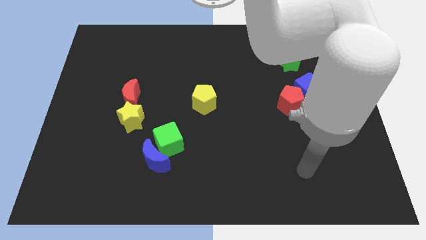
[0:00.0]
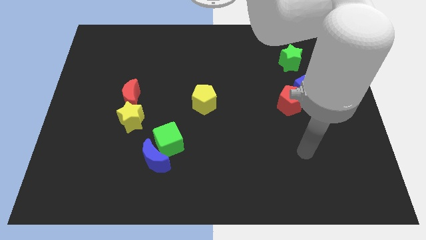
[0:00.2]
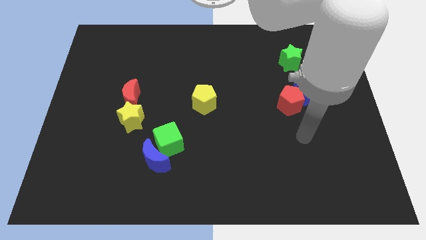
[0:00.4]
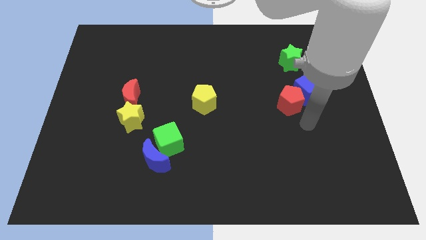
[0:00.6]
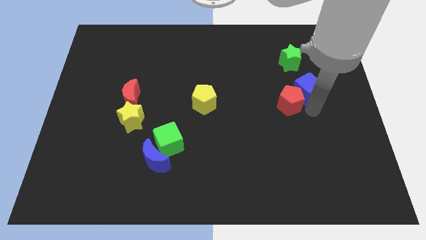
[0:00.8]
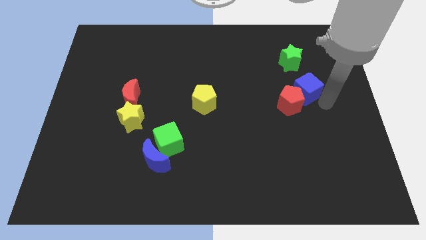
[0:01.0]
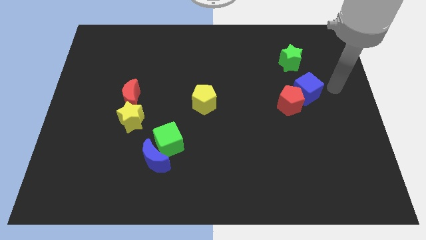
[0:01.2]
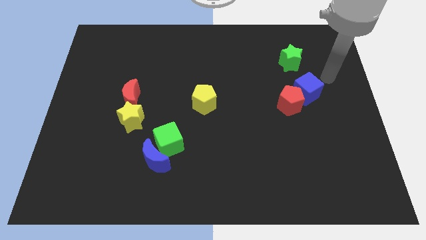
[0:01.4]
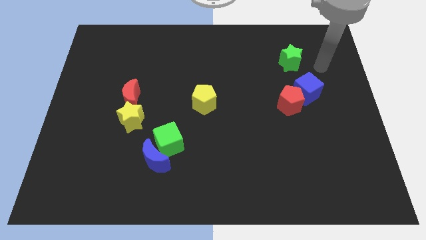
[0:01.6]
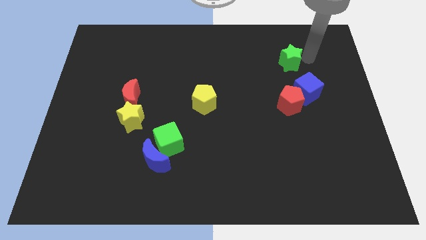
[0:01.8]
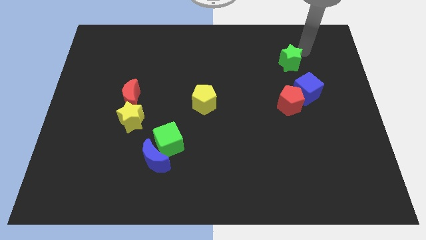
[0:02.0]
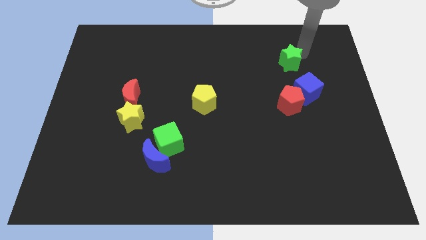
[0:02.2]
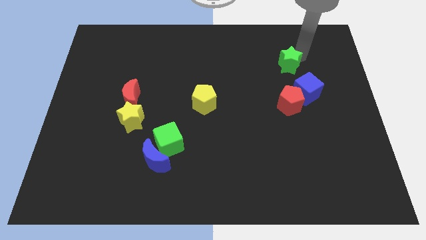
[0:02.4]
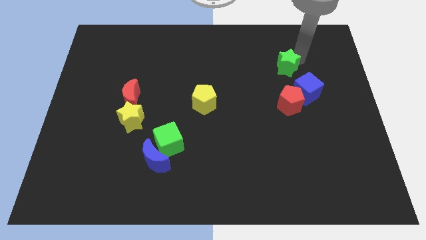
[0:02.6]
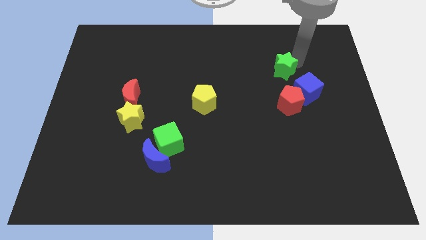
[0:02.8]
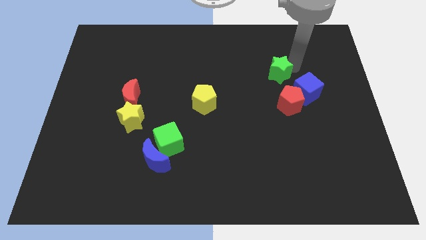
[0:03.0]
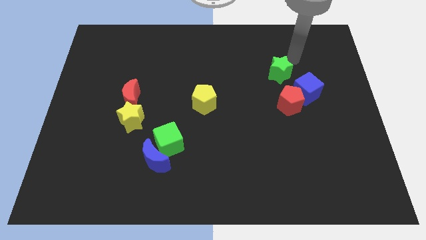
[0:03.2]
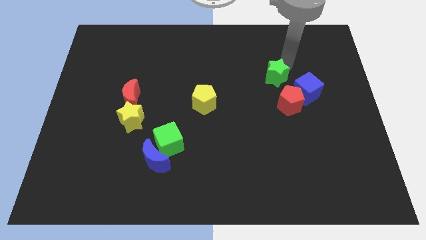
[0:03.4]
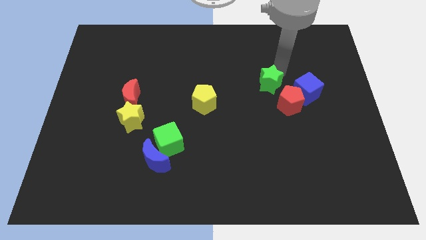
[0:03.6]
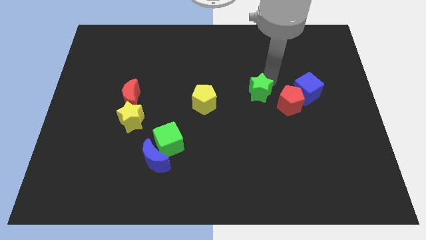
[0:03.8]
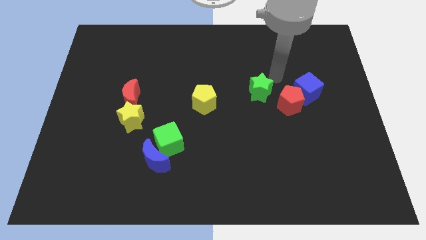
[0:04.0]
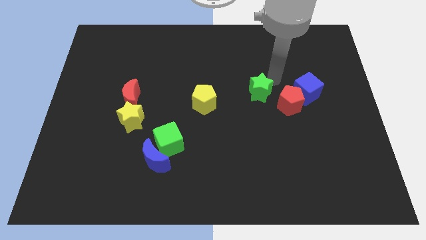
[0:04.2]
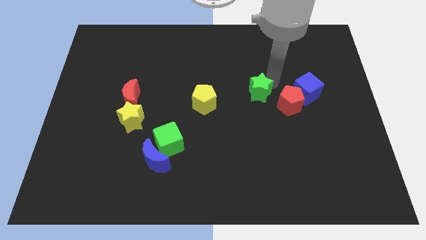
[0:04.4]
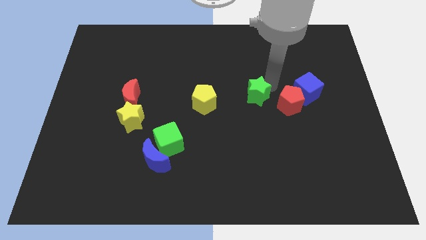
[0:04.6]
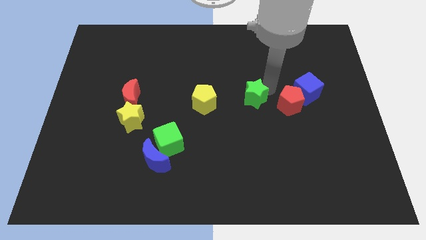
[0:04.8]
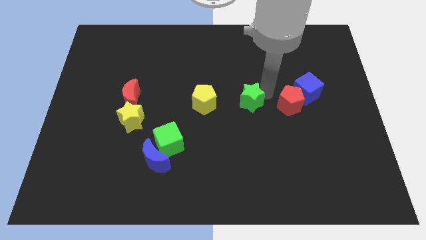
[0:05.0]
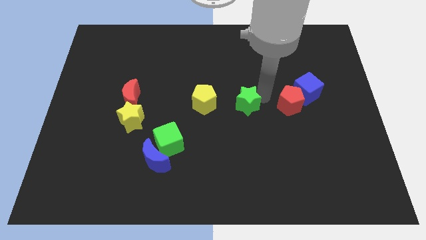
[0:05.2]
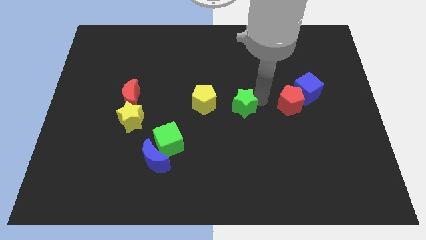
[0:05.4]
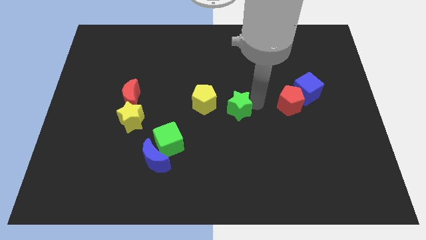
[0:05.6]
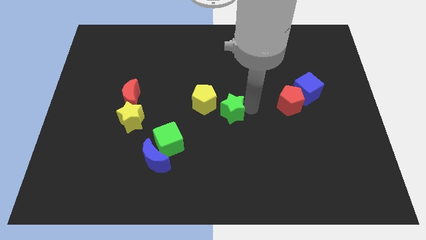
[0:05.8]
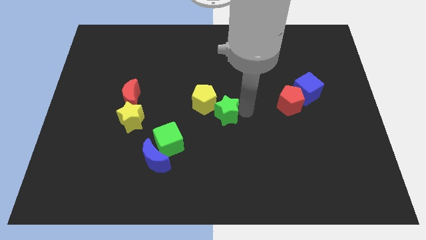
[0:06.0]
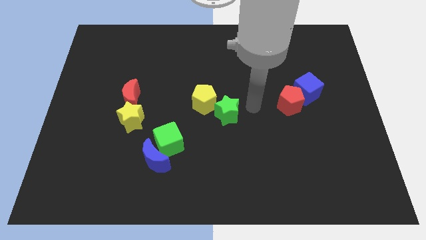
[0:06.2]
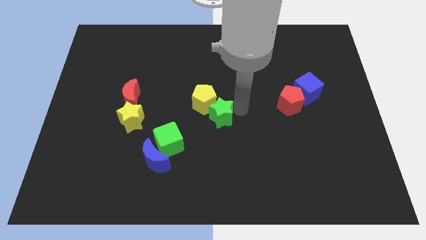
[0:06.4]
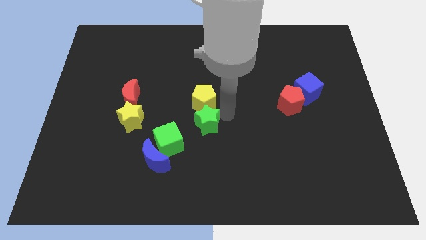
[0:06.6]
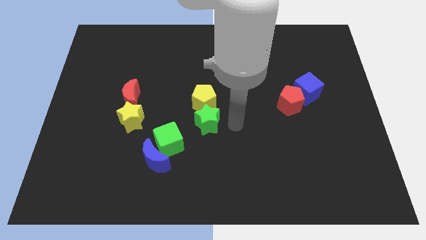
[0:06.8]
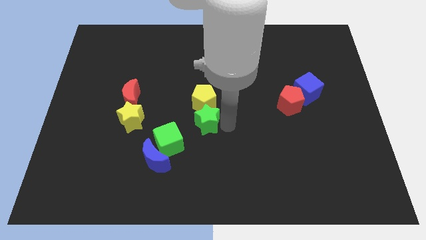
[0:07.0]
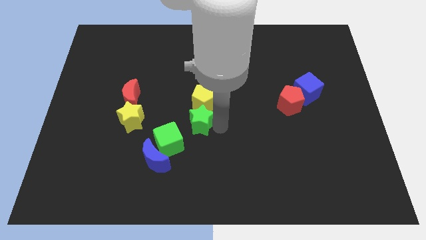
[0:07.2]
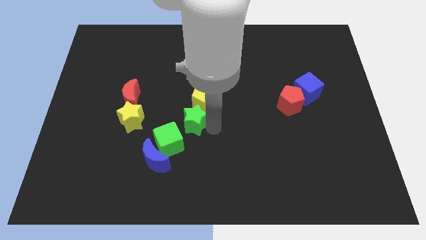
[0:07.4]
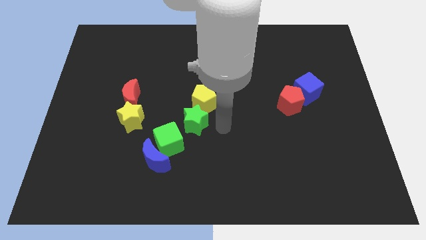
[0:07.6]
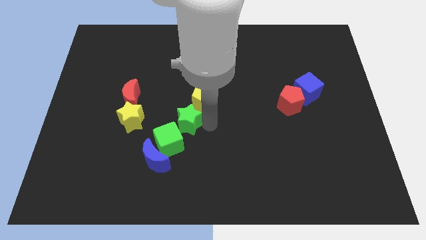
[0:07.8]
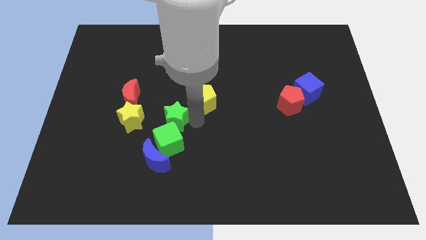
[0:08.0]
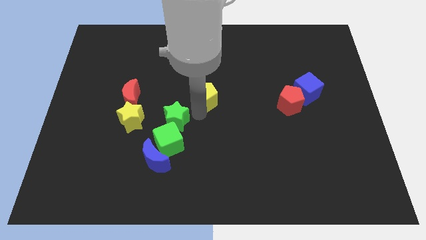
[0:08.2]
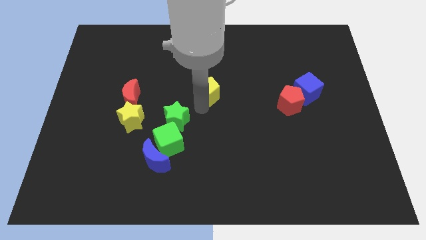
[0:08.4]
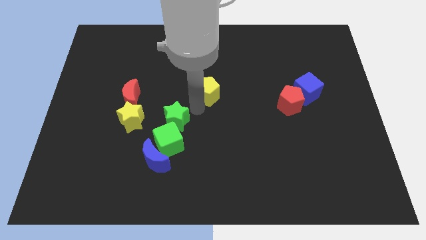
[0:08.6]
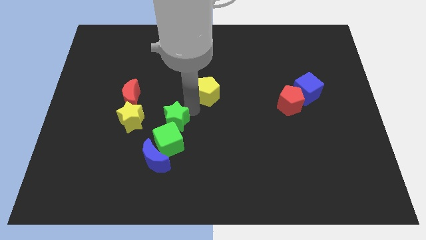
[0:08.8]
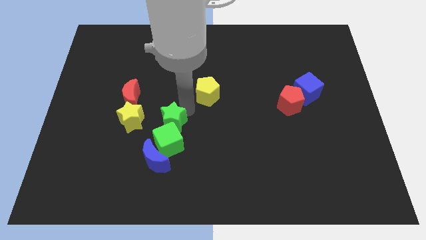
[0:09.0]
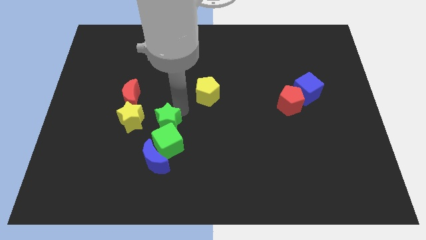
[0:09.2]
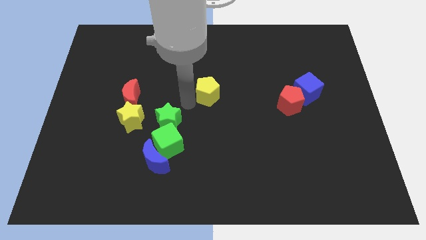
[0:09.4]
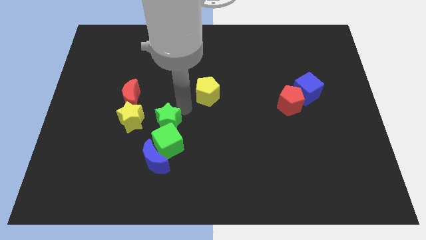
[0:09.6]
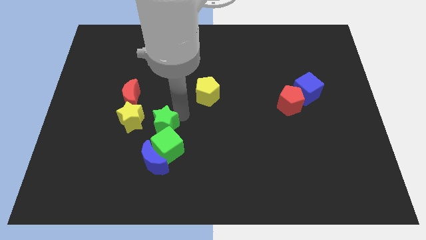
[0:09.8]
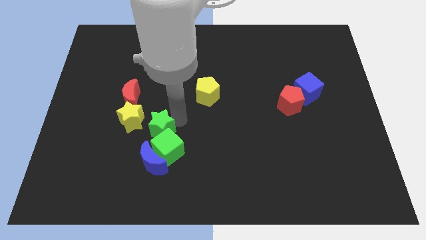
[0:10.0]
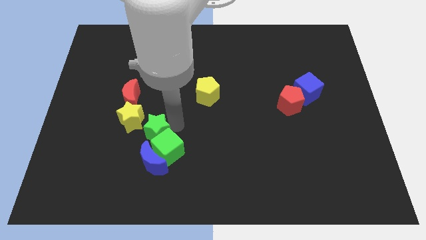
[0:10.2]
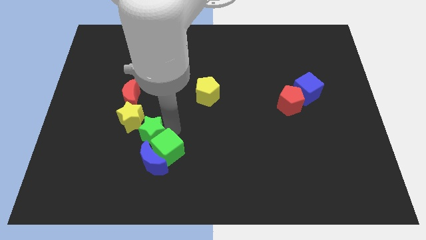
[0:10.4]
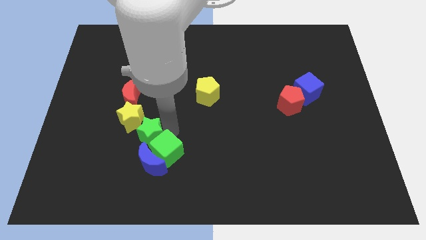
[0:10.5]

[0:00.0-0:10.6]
put the green star to the bottom of the yellow star

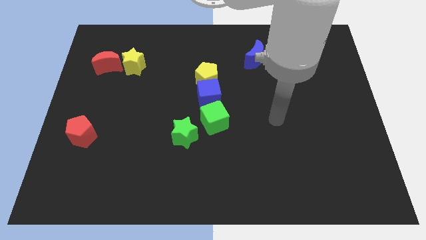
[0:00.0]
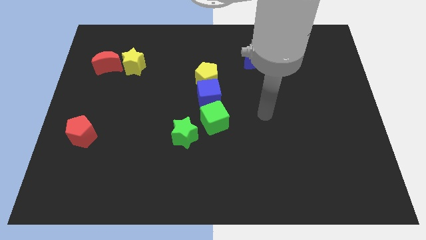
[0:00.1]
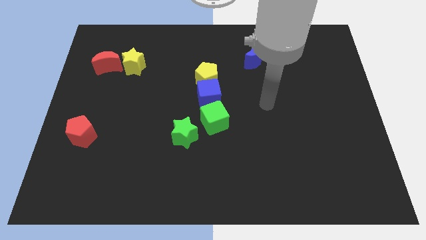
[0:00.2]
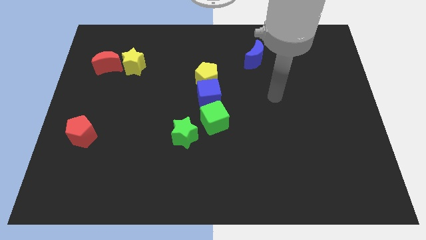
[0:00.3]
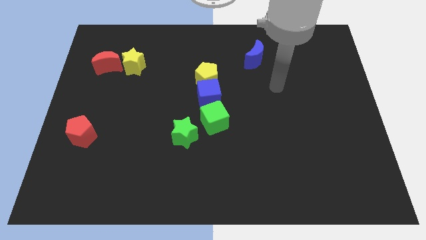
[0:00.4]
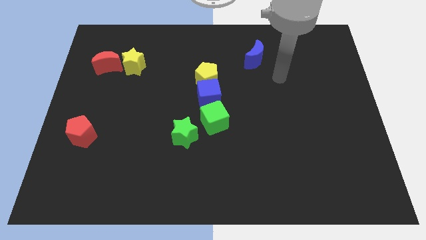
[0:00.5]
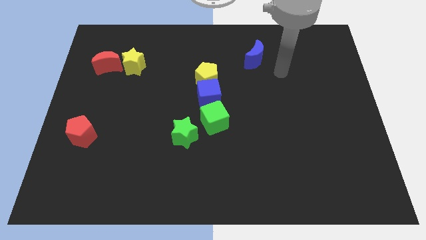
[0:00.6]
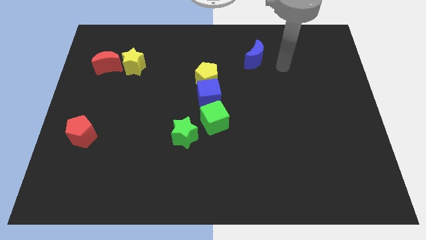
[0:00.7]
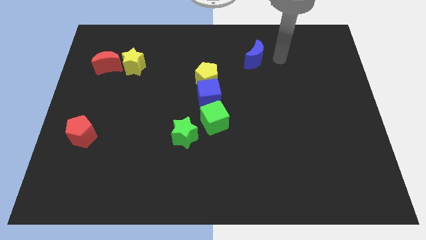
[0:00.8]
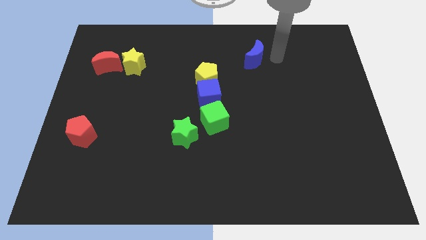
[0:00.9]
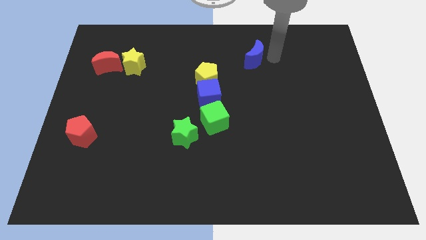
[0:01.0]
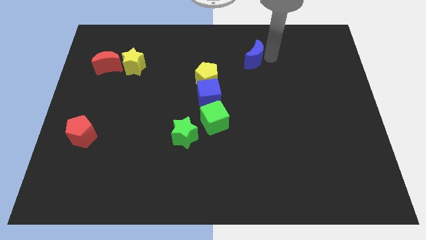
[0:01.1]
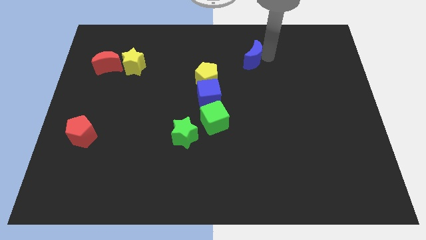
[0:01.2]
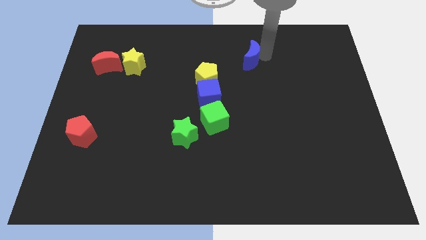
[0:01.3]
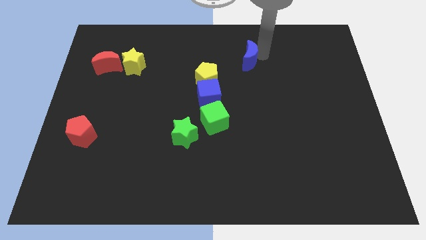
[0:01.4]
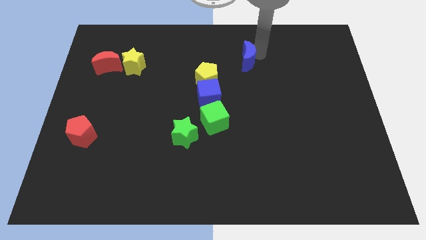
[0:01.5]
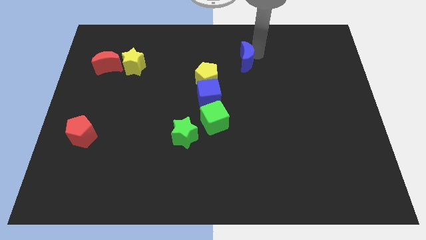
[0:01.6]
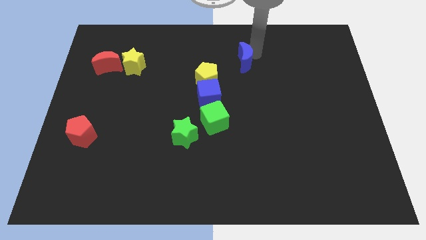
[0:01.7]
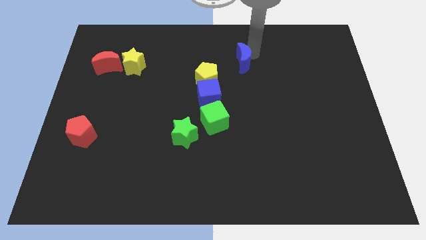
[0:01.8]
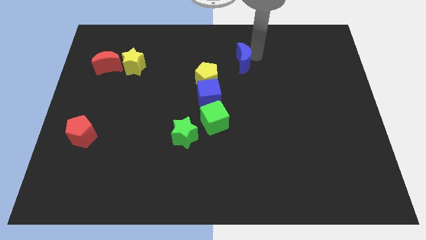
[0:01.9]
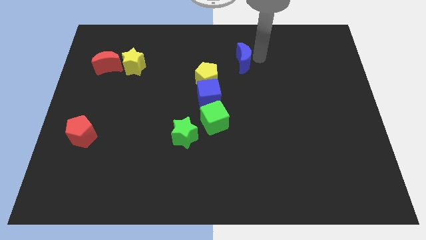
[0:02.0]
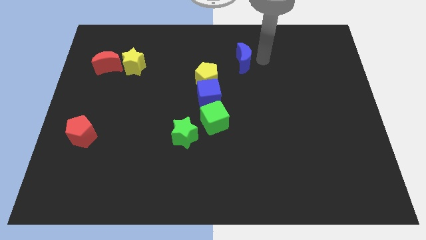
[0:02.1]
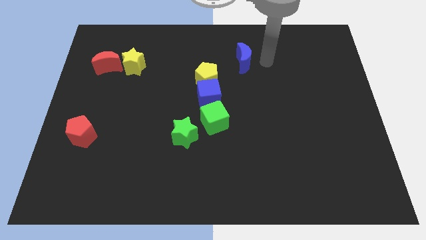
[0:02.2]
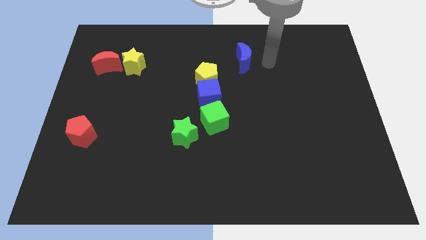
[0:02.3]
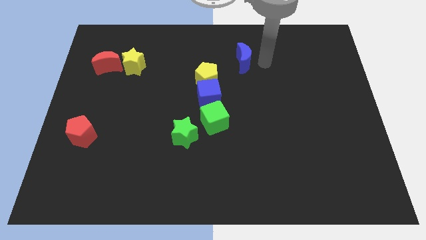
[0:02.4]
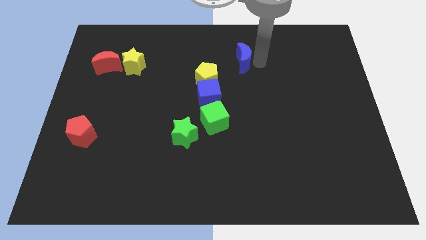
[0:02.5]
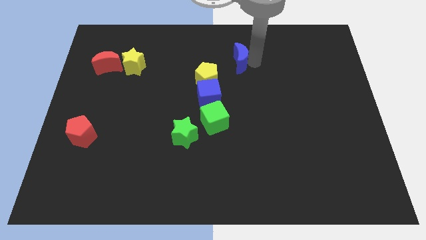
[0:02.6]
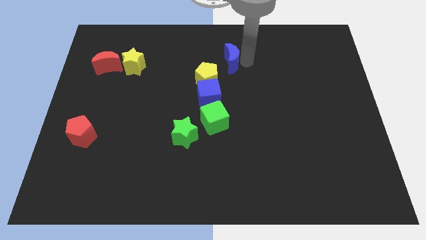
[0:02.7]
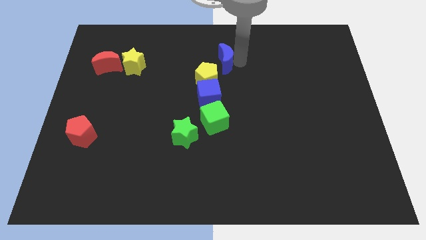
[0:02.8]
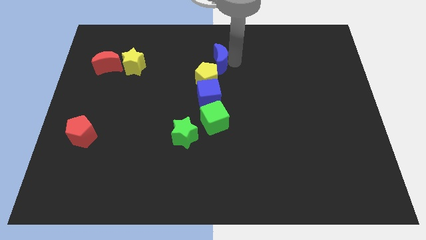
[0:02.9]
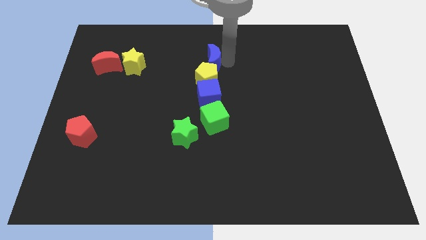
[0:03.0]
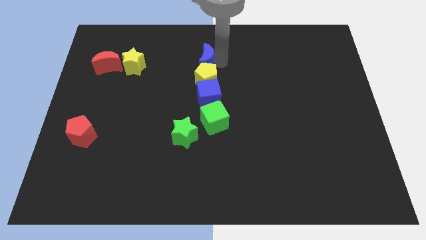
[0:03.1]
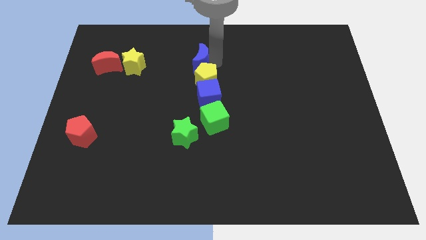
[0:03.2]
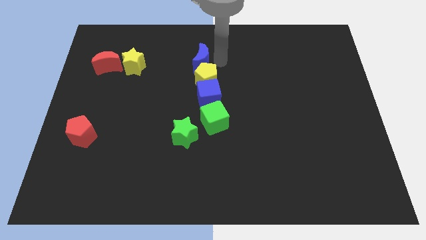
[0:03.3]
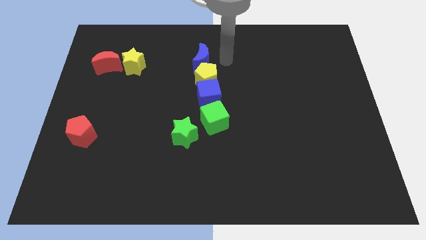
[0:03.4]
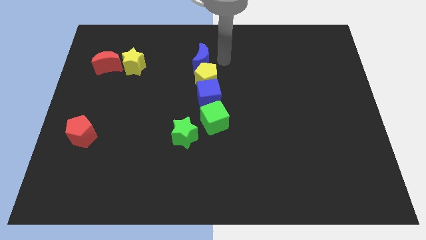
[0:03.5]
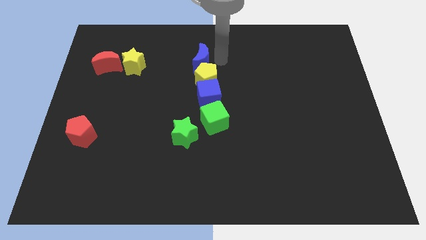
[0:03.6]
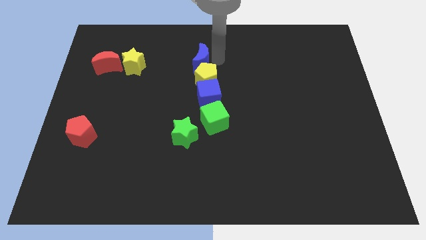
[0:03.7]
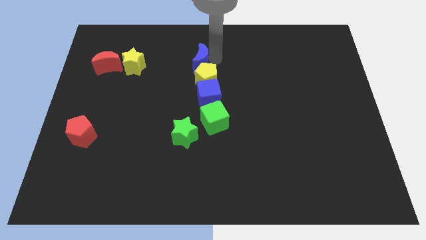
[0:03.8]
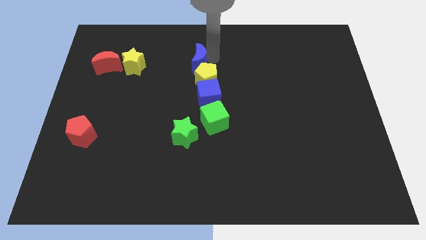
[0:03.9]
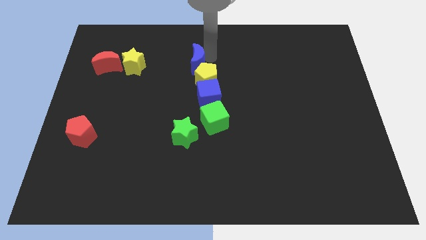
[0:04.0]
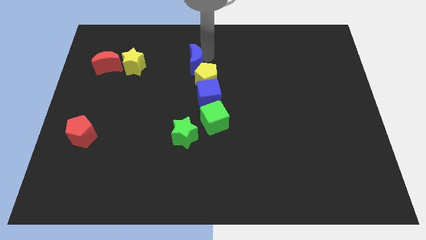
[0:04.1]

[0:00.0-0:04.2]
slide the blue moon right of the yellow star
